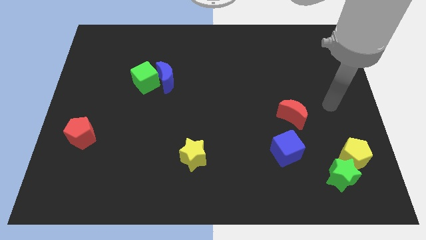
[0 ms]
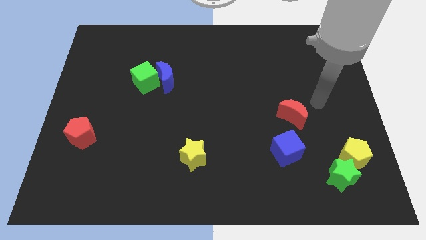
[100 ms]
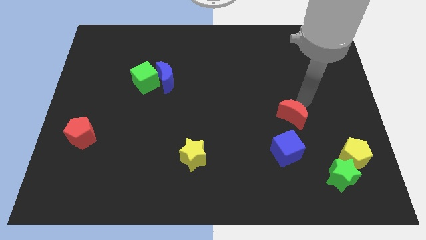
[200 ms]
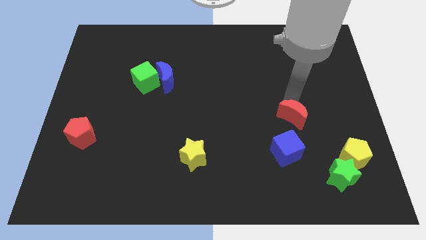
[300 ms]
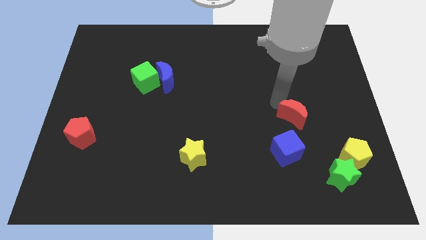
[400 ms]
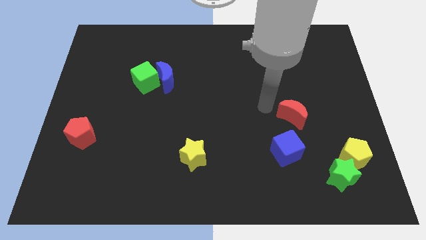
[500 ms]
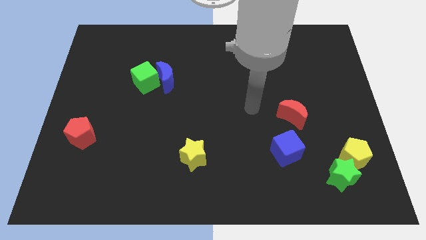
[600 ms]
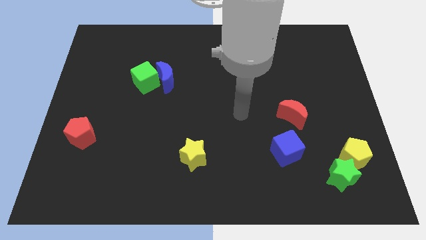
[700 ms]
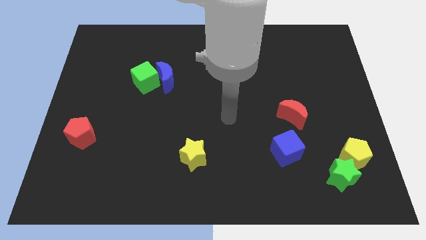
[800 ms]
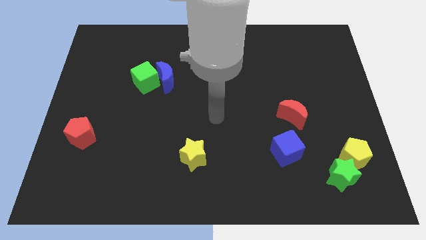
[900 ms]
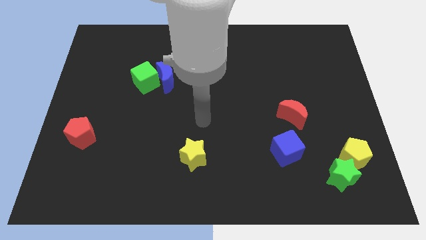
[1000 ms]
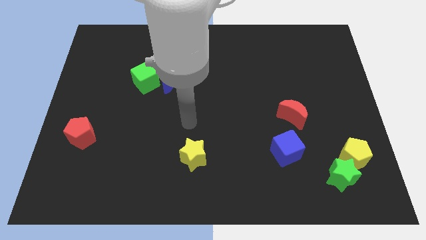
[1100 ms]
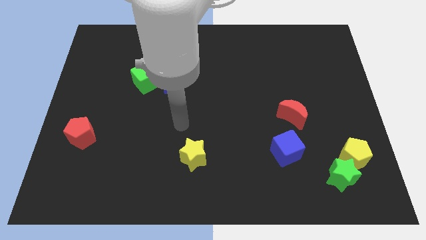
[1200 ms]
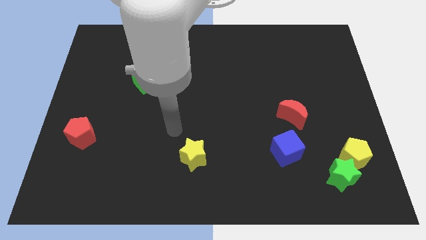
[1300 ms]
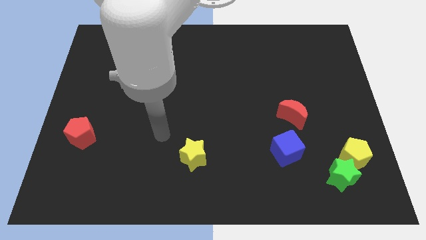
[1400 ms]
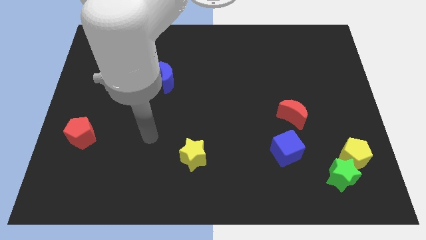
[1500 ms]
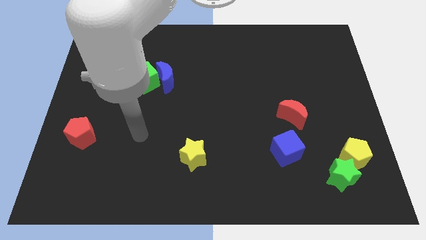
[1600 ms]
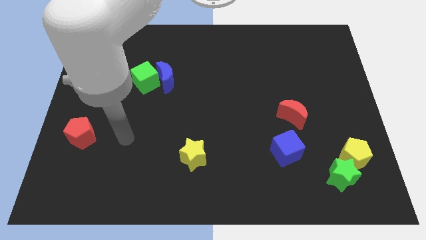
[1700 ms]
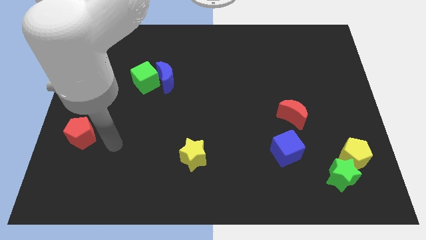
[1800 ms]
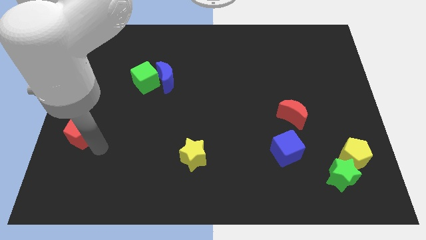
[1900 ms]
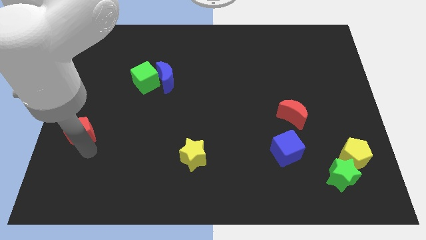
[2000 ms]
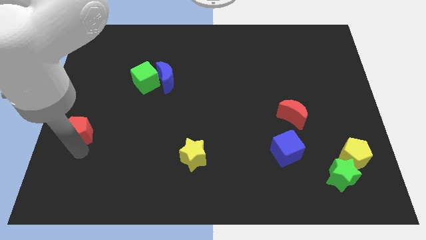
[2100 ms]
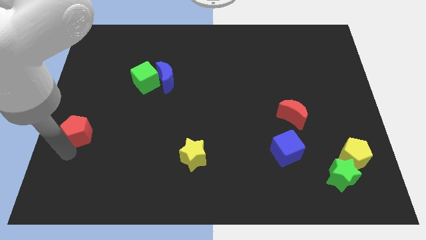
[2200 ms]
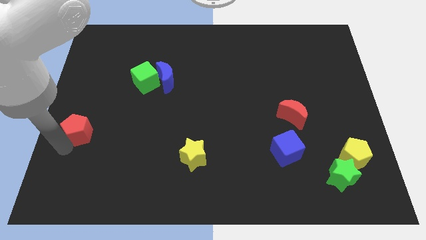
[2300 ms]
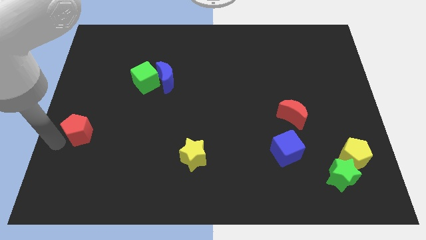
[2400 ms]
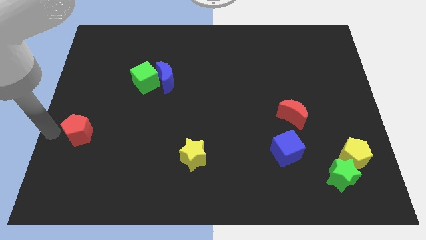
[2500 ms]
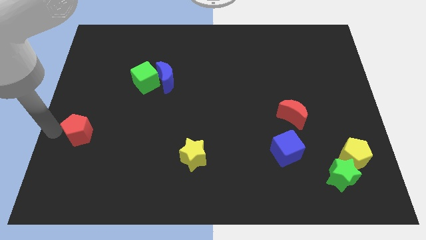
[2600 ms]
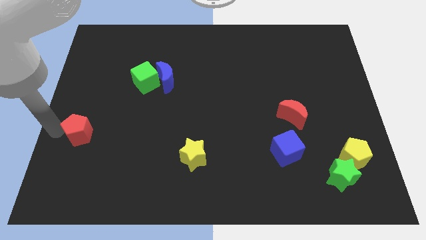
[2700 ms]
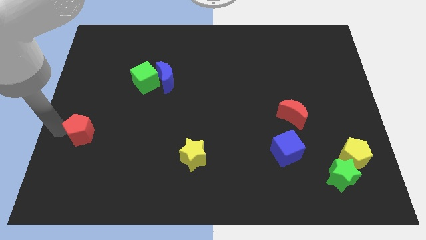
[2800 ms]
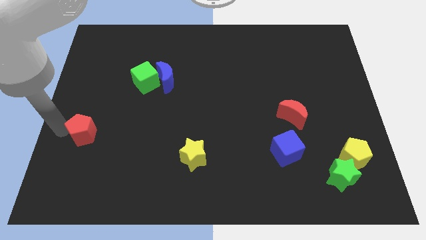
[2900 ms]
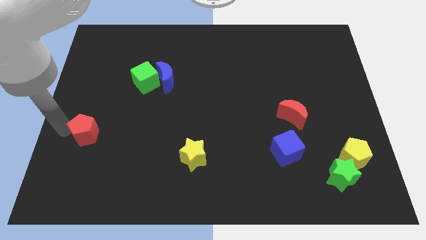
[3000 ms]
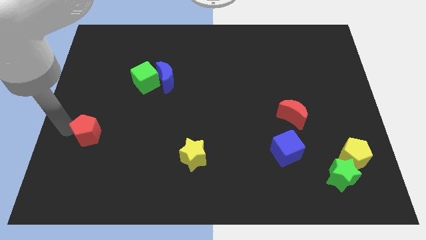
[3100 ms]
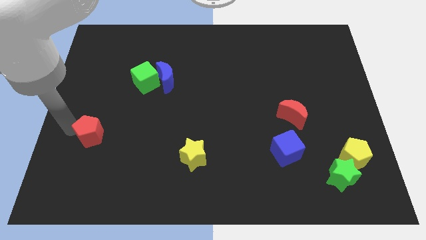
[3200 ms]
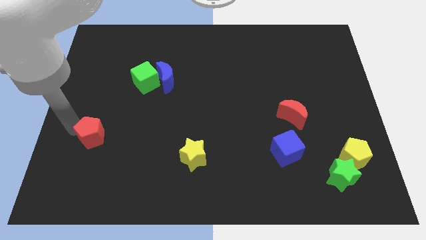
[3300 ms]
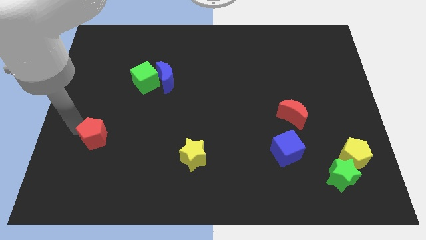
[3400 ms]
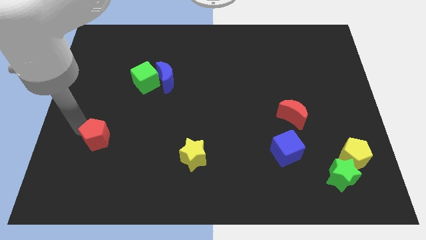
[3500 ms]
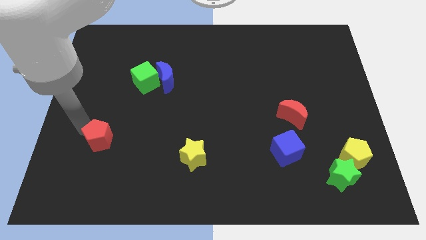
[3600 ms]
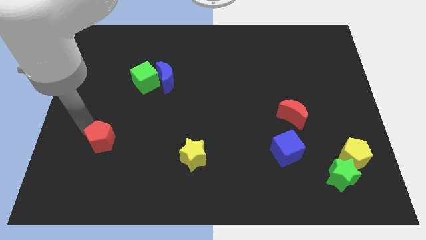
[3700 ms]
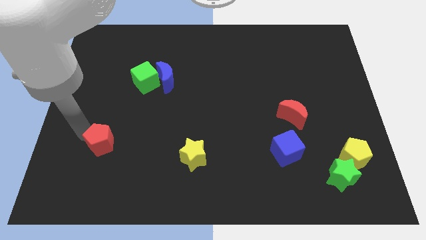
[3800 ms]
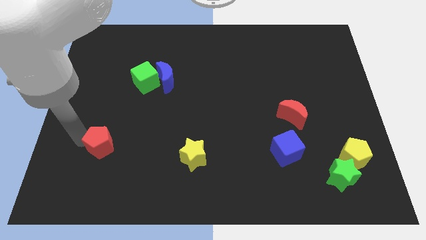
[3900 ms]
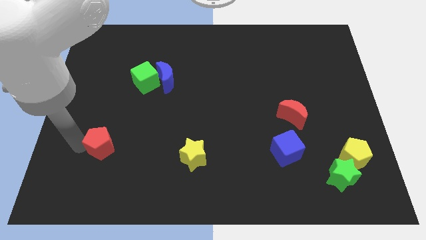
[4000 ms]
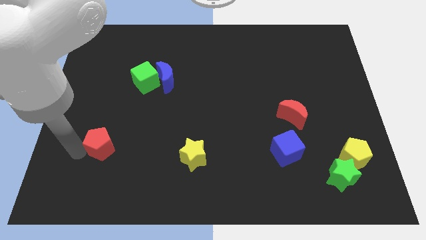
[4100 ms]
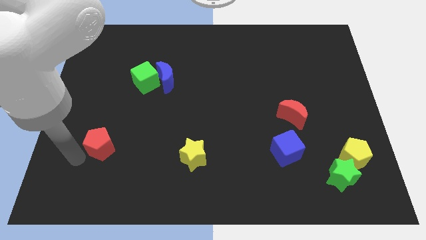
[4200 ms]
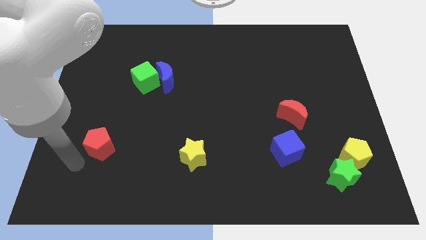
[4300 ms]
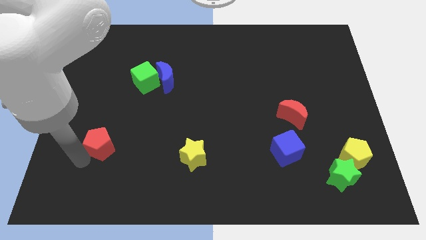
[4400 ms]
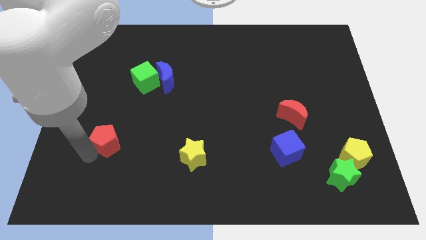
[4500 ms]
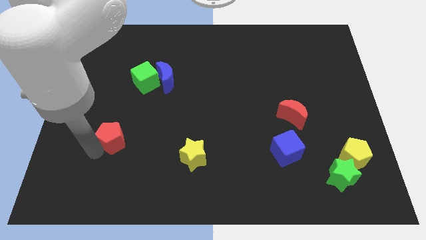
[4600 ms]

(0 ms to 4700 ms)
move the red pentagon right a bit

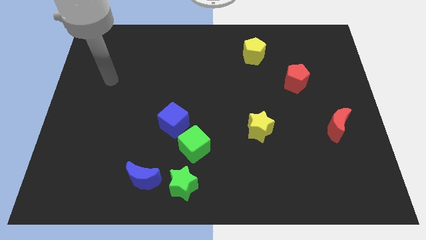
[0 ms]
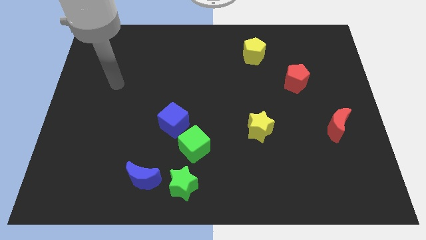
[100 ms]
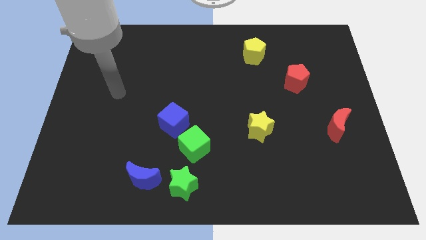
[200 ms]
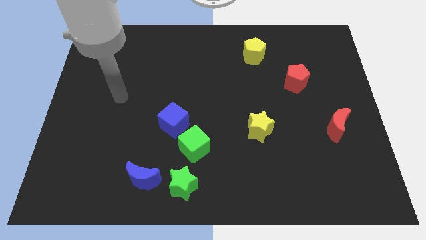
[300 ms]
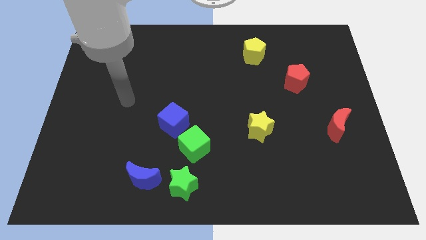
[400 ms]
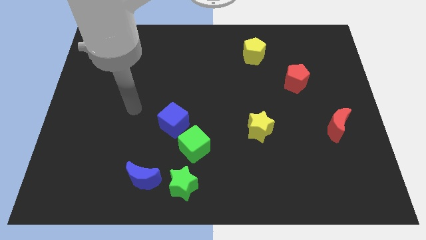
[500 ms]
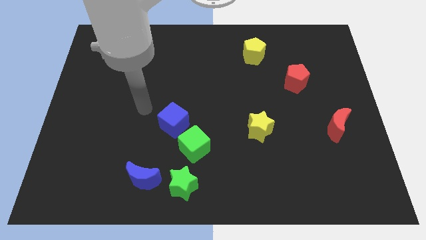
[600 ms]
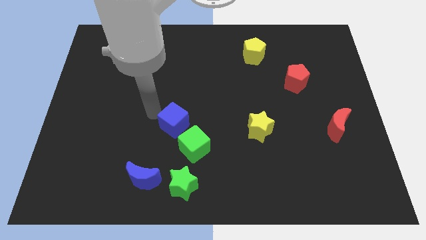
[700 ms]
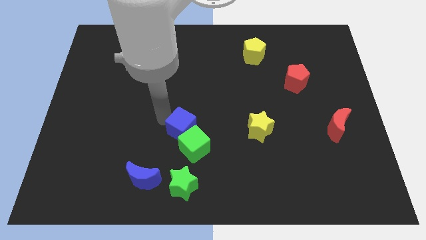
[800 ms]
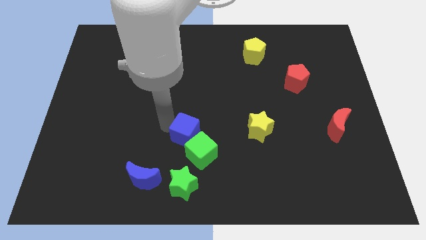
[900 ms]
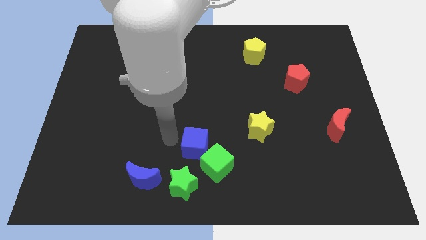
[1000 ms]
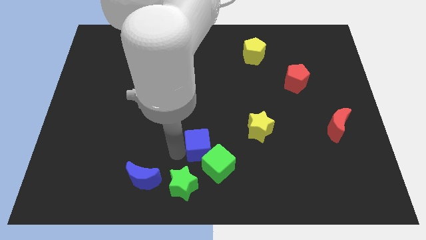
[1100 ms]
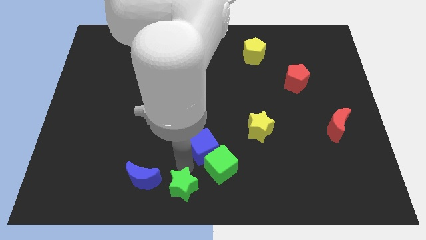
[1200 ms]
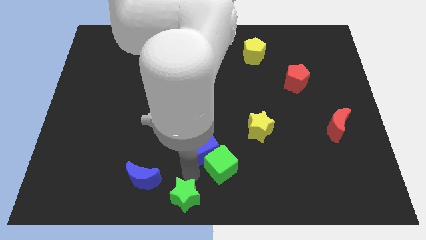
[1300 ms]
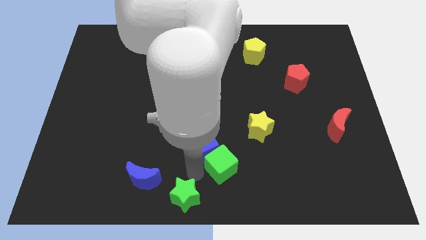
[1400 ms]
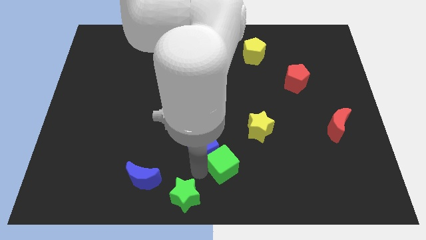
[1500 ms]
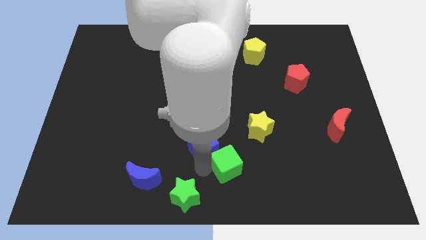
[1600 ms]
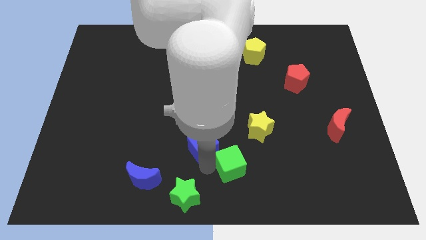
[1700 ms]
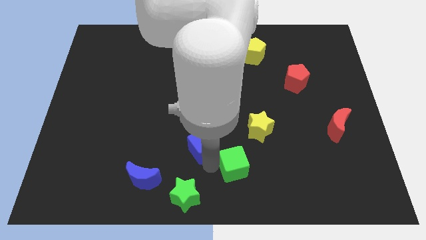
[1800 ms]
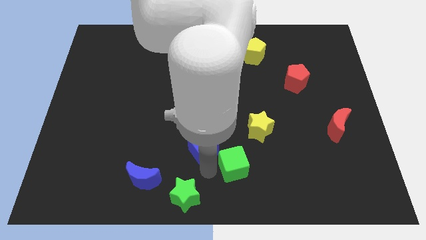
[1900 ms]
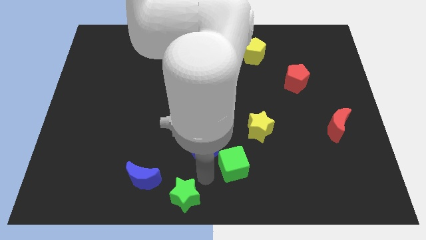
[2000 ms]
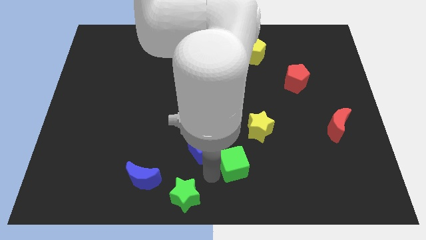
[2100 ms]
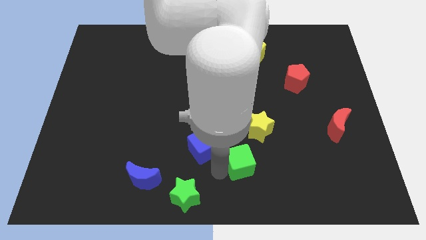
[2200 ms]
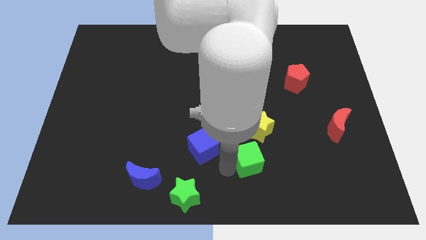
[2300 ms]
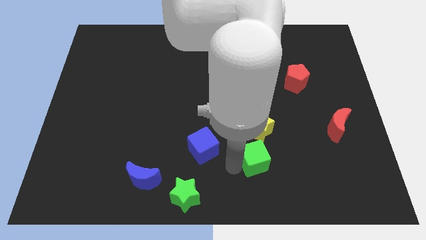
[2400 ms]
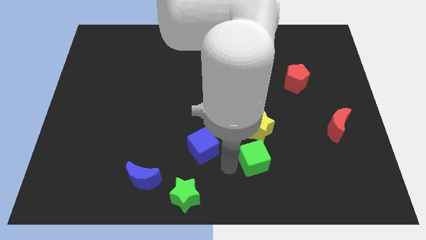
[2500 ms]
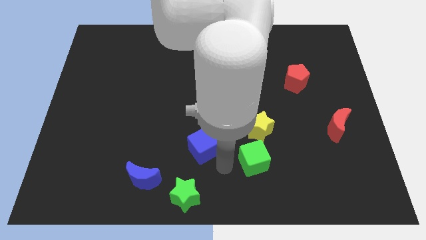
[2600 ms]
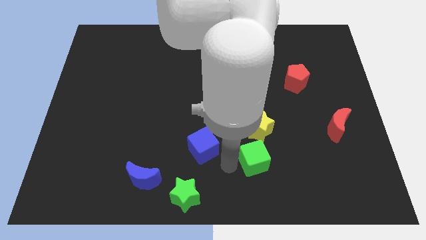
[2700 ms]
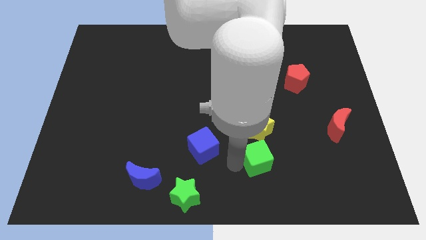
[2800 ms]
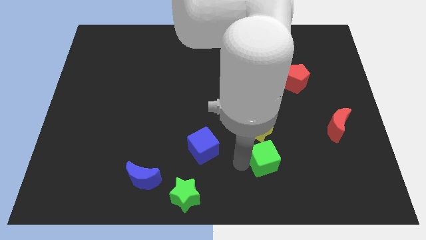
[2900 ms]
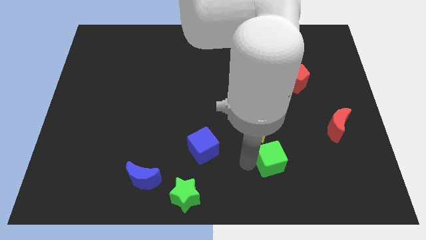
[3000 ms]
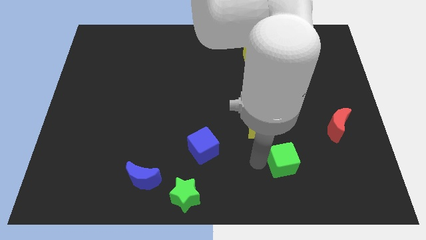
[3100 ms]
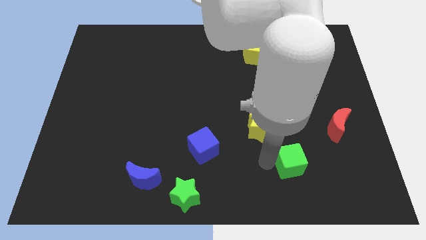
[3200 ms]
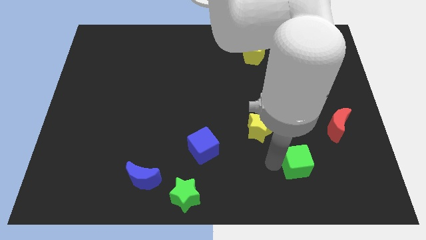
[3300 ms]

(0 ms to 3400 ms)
slide the green cube right
